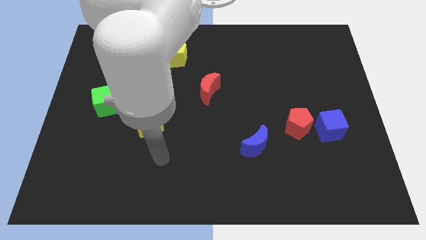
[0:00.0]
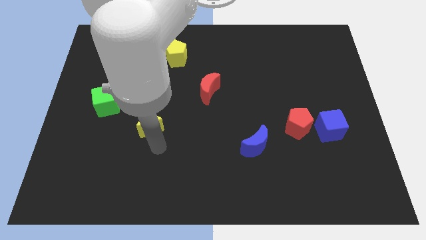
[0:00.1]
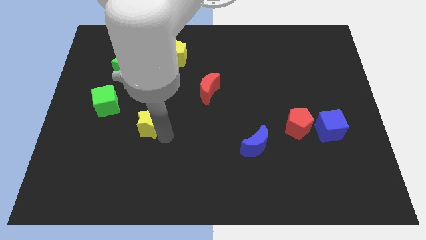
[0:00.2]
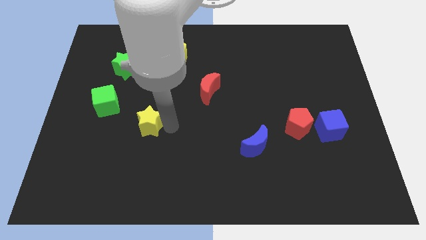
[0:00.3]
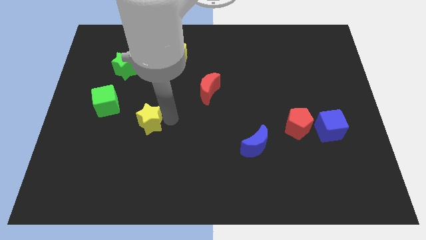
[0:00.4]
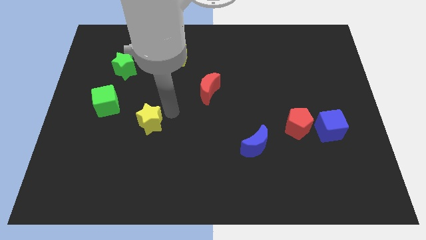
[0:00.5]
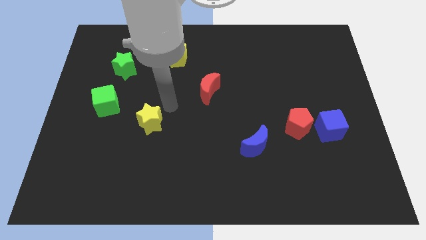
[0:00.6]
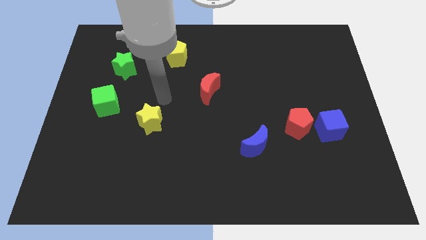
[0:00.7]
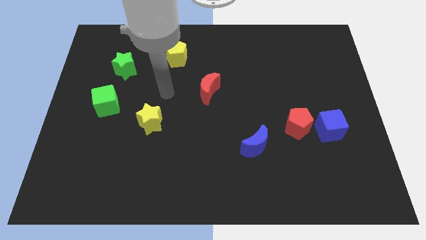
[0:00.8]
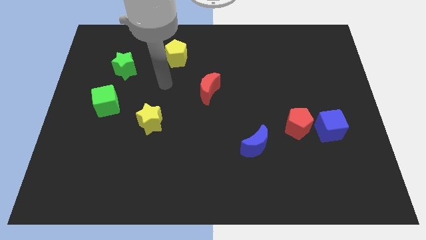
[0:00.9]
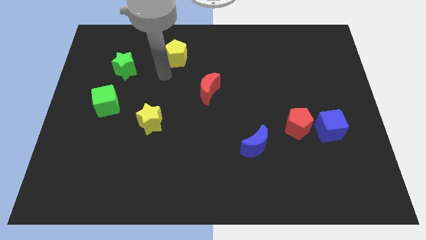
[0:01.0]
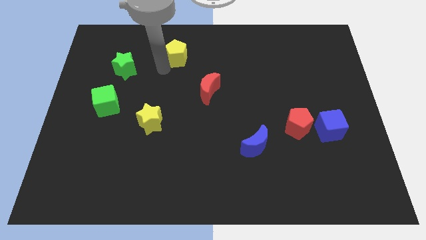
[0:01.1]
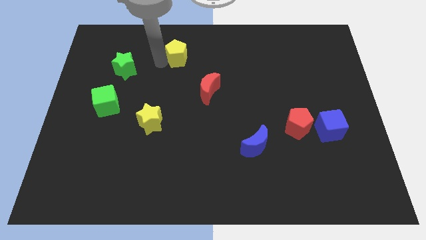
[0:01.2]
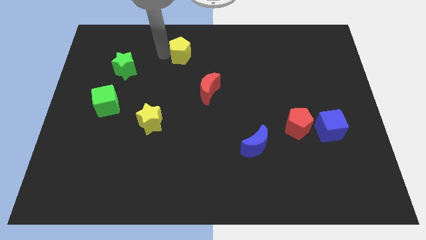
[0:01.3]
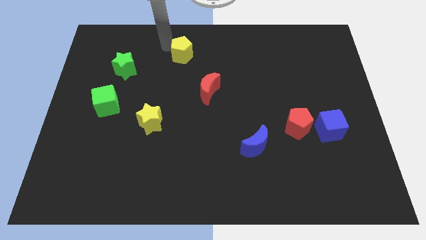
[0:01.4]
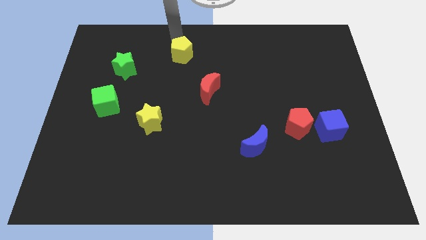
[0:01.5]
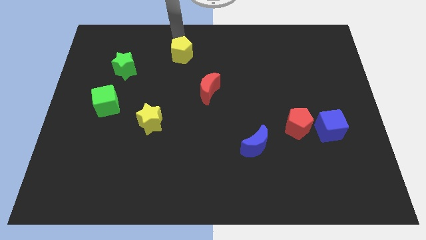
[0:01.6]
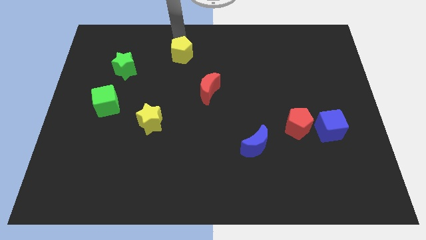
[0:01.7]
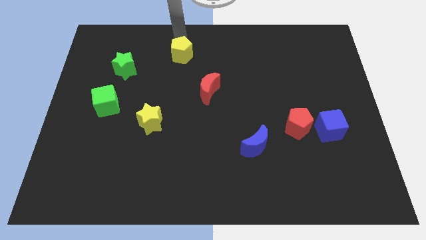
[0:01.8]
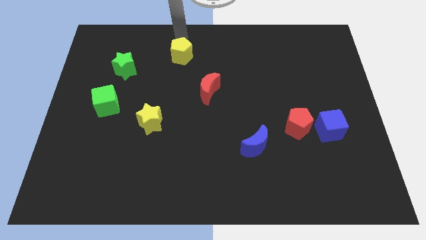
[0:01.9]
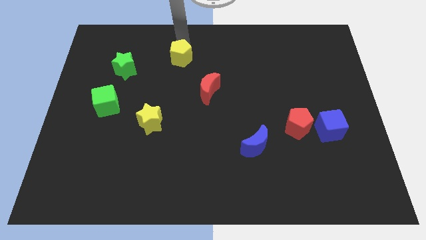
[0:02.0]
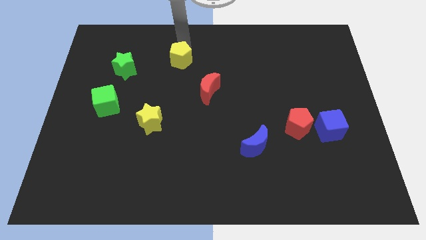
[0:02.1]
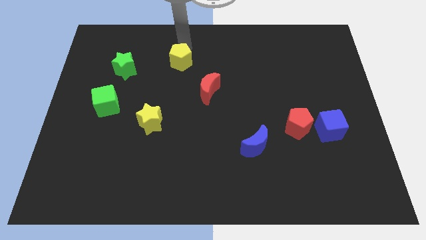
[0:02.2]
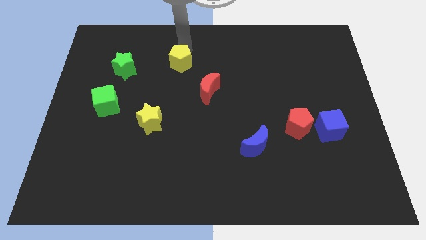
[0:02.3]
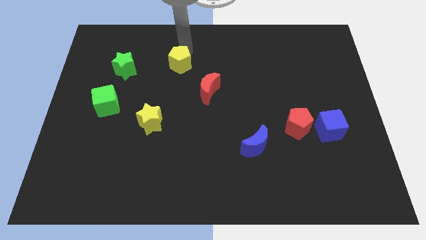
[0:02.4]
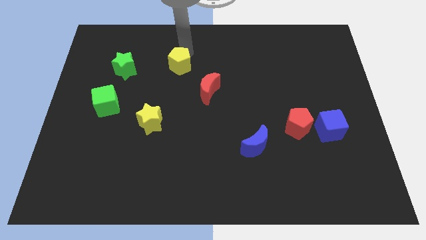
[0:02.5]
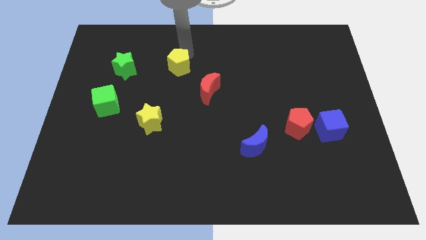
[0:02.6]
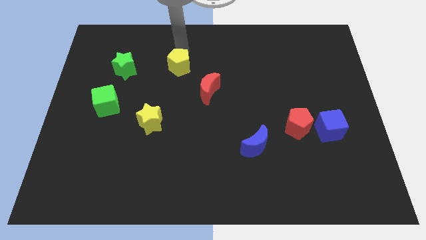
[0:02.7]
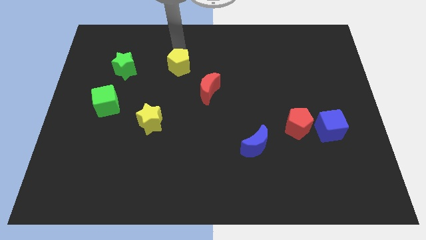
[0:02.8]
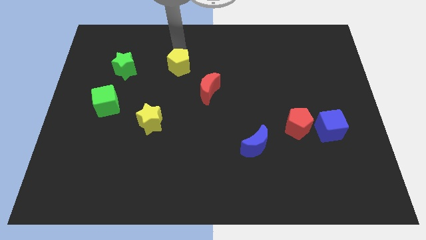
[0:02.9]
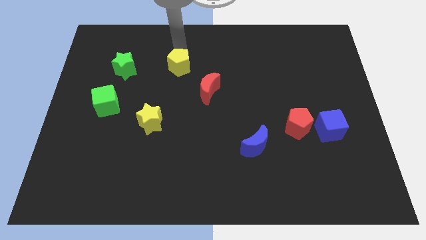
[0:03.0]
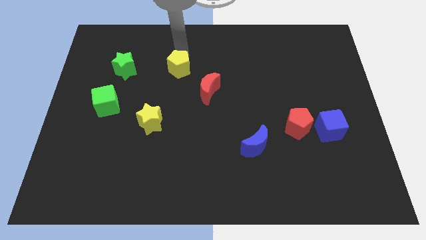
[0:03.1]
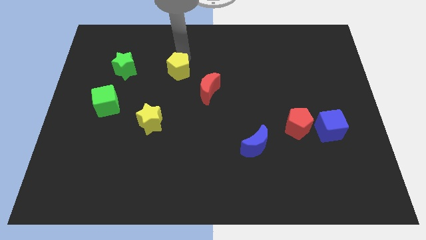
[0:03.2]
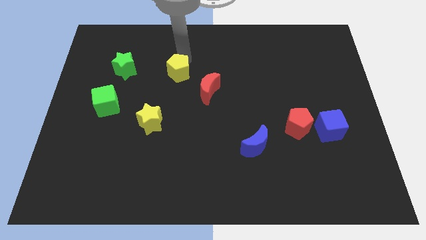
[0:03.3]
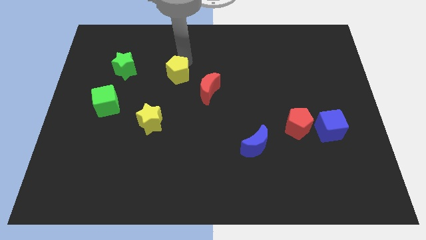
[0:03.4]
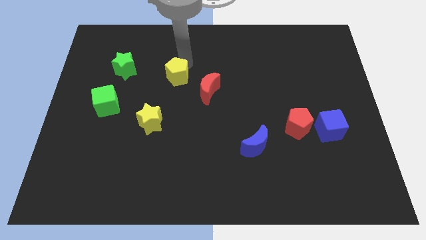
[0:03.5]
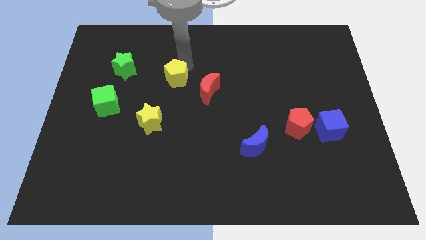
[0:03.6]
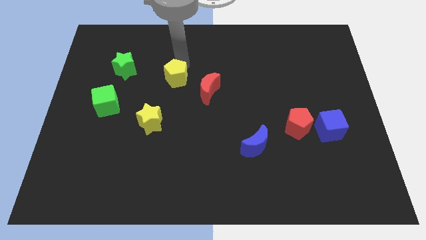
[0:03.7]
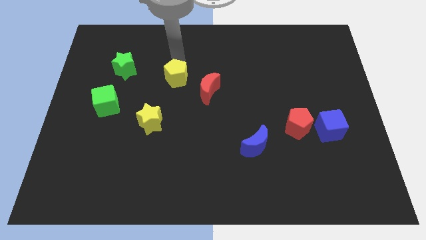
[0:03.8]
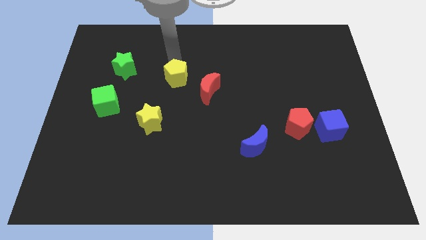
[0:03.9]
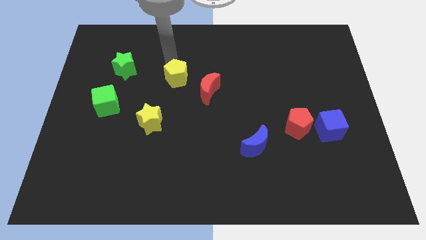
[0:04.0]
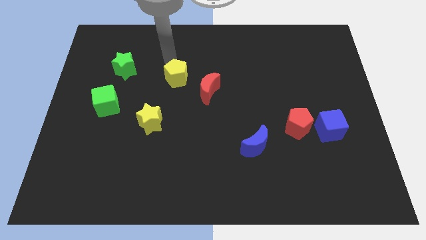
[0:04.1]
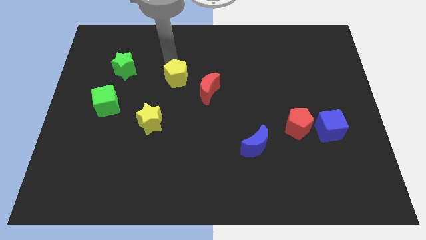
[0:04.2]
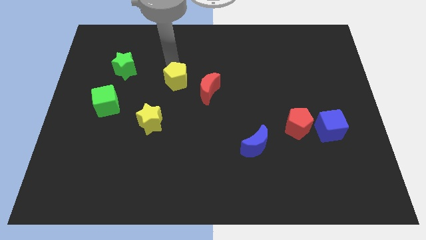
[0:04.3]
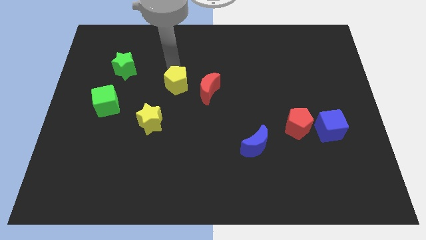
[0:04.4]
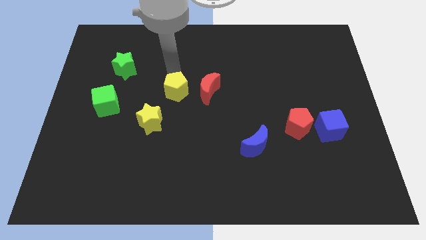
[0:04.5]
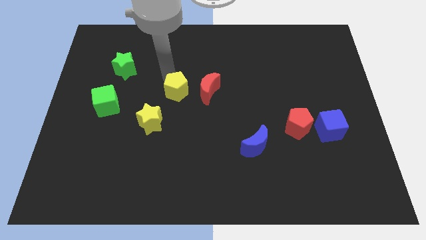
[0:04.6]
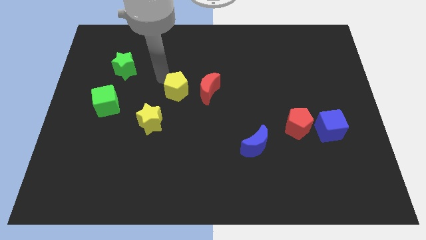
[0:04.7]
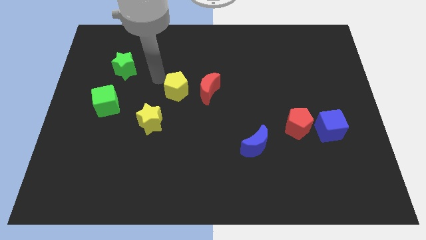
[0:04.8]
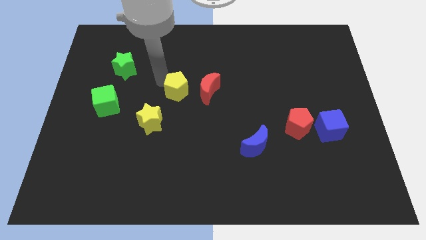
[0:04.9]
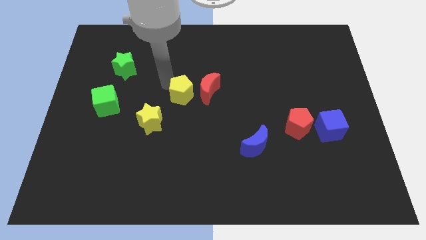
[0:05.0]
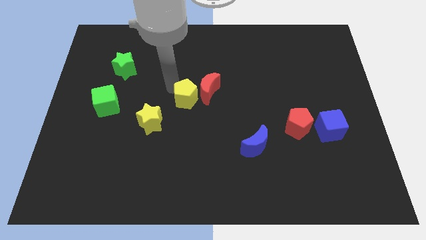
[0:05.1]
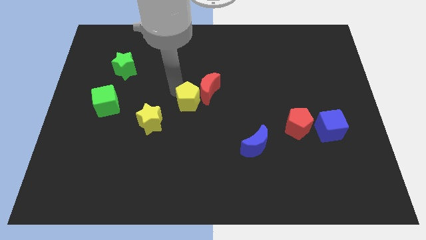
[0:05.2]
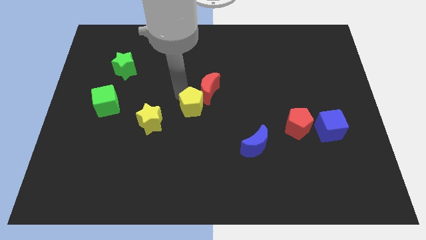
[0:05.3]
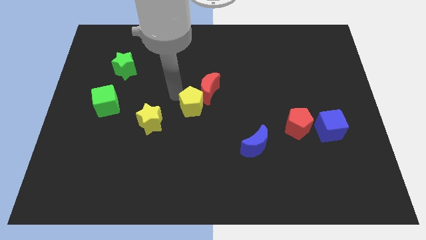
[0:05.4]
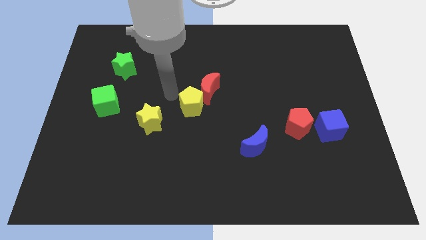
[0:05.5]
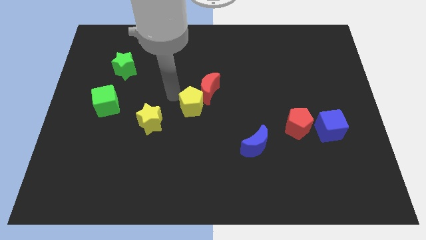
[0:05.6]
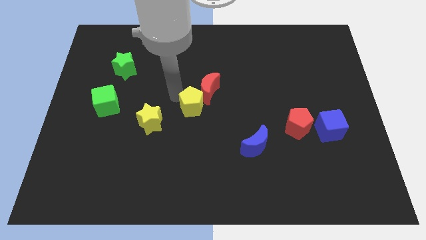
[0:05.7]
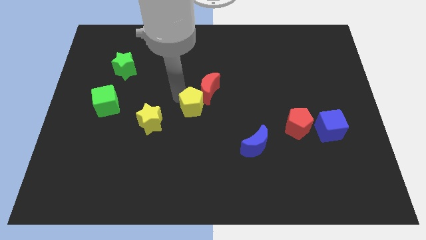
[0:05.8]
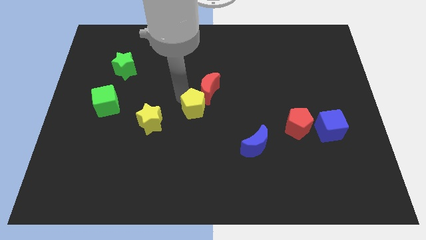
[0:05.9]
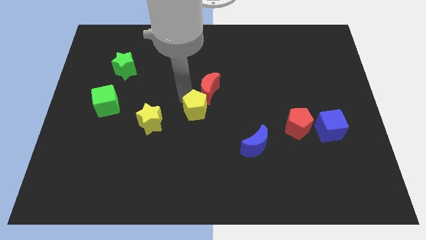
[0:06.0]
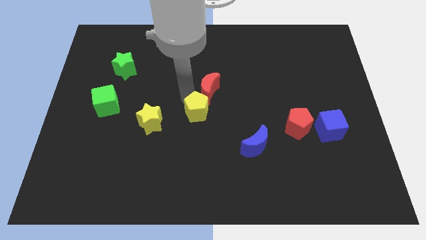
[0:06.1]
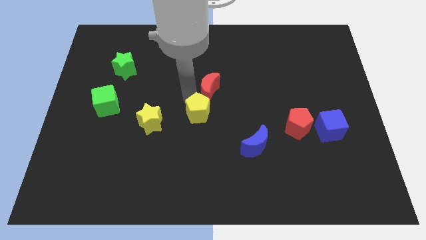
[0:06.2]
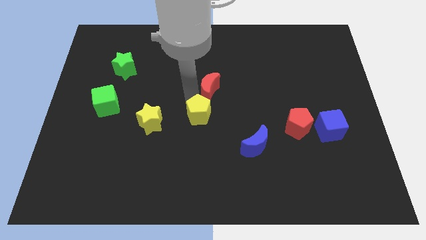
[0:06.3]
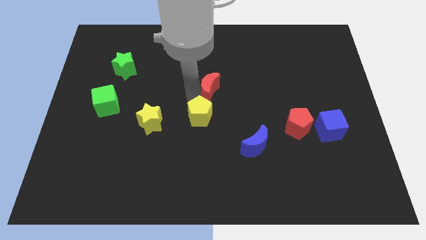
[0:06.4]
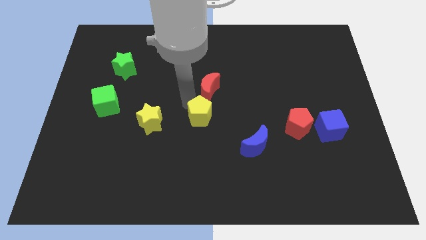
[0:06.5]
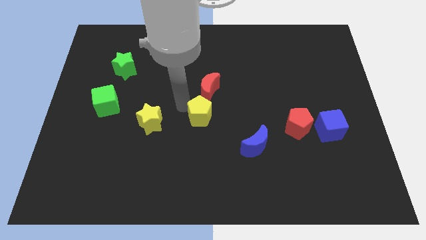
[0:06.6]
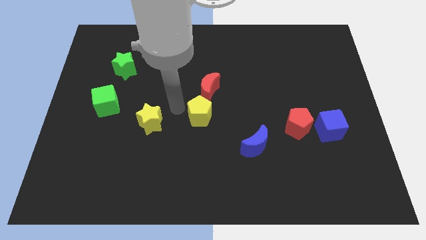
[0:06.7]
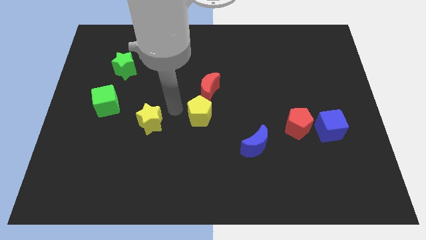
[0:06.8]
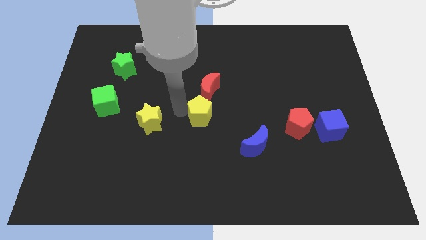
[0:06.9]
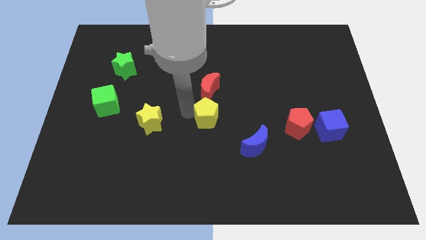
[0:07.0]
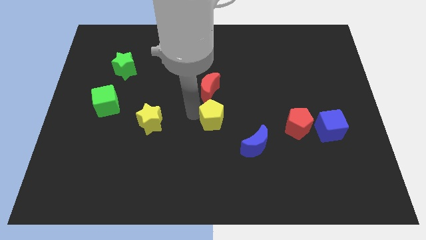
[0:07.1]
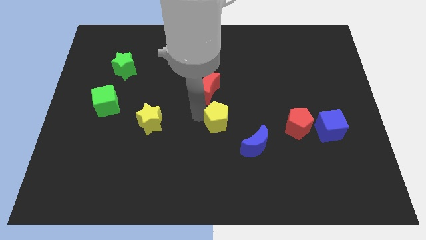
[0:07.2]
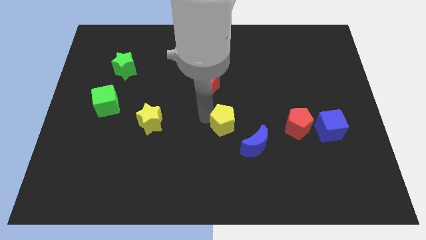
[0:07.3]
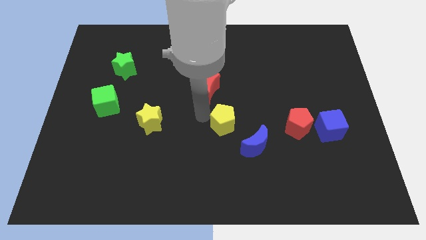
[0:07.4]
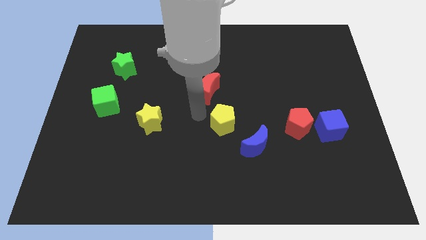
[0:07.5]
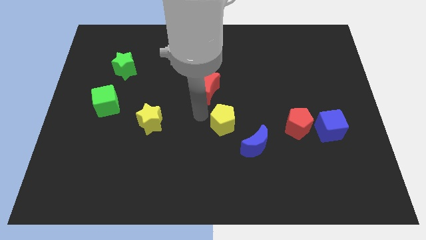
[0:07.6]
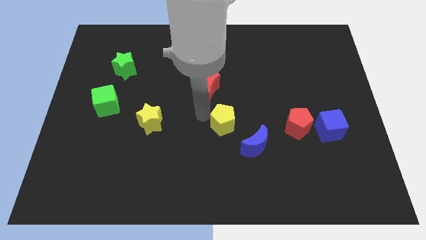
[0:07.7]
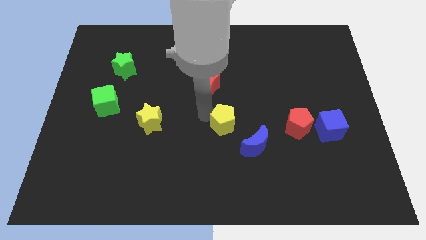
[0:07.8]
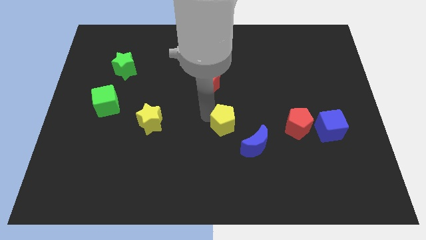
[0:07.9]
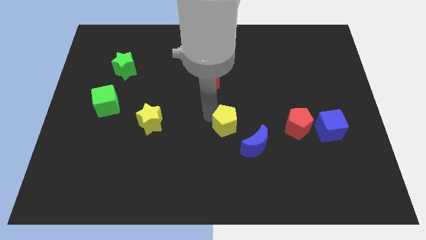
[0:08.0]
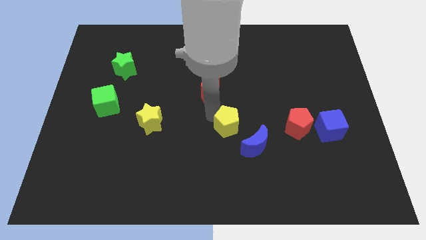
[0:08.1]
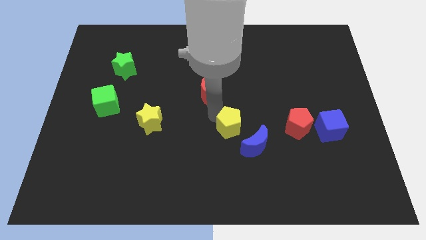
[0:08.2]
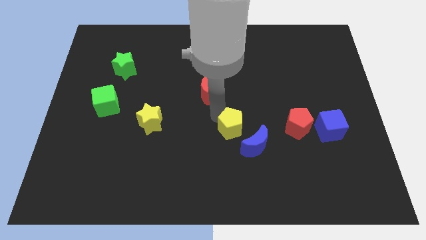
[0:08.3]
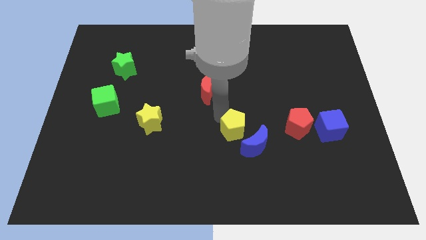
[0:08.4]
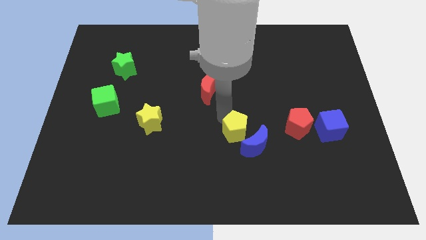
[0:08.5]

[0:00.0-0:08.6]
put the yellow pentagon close to the blue moon
